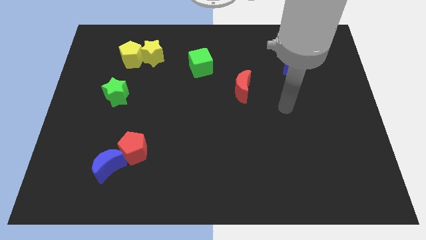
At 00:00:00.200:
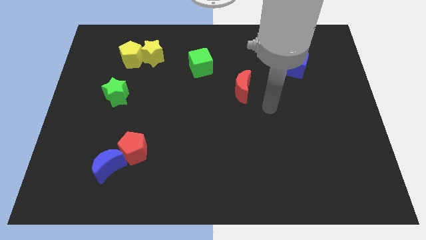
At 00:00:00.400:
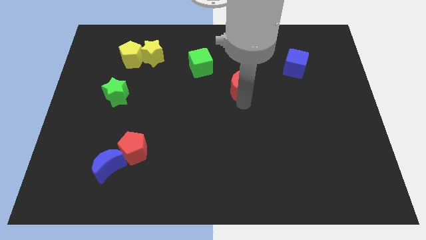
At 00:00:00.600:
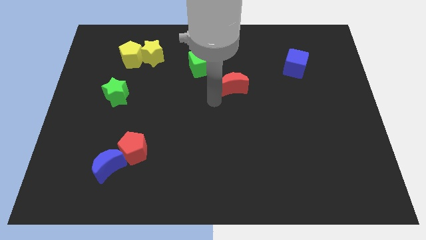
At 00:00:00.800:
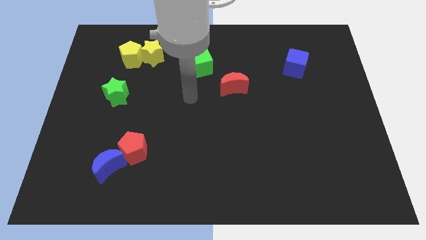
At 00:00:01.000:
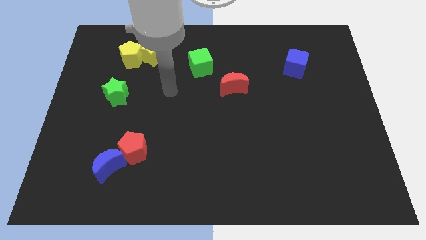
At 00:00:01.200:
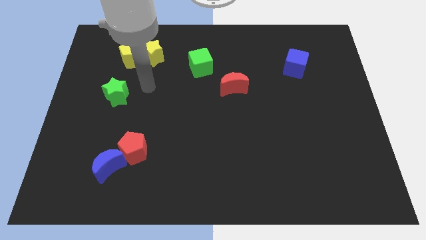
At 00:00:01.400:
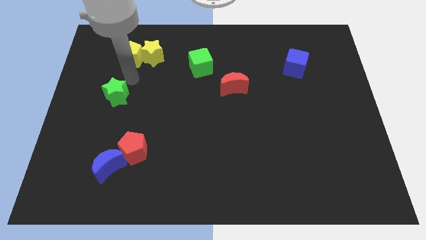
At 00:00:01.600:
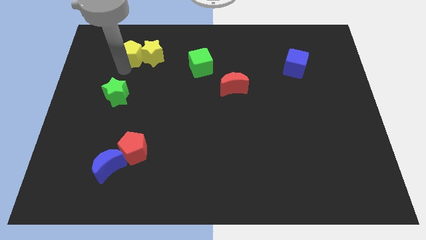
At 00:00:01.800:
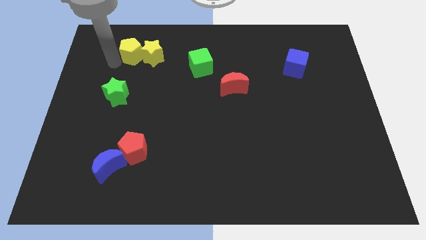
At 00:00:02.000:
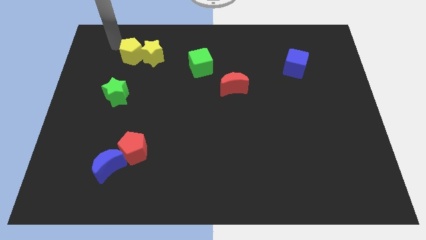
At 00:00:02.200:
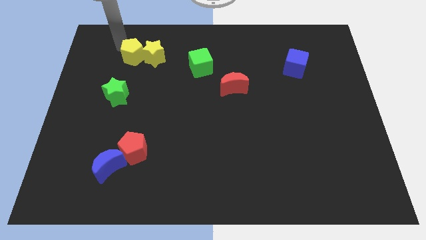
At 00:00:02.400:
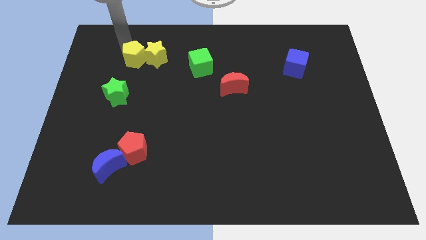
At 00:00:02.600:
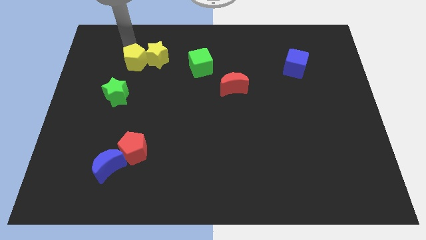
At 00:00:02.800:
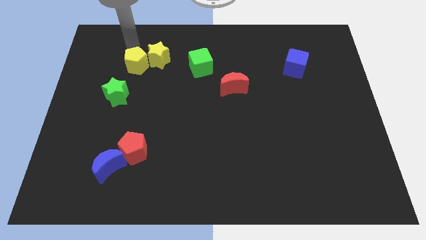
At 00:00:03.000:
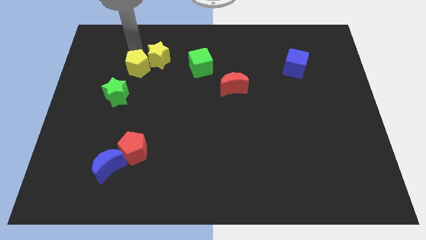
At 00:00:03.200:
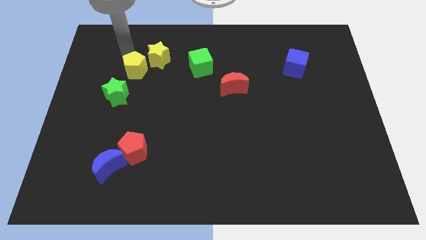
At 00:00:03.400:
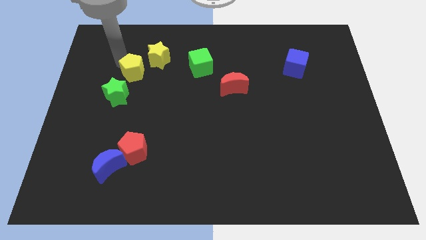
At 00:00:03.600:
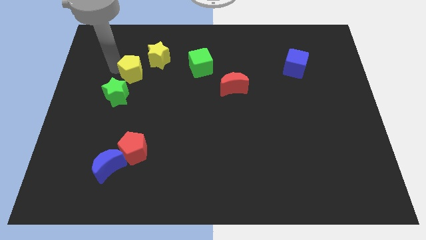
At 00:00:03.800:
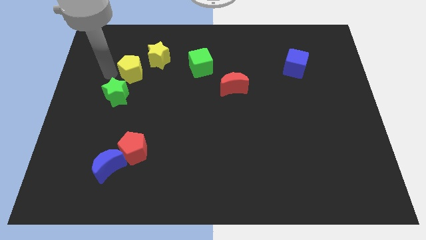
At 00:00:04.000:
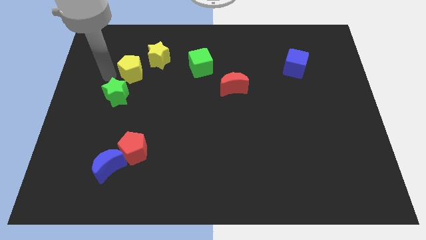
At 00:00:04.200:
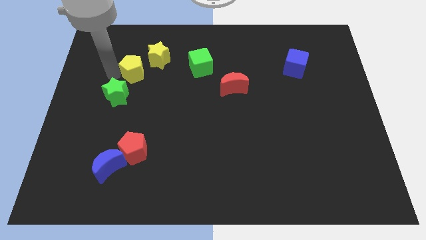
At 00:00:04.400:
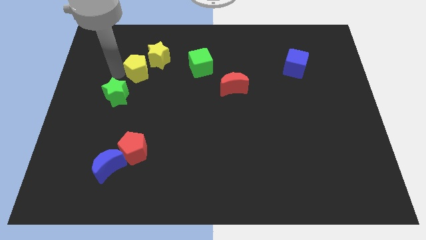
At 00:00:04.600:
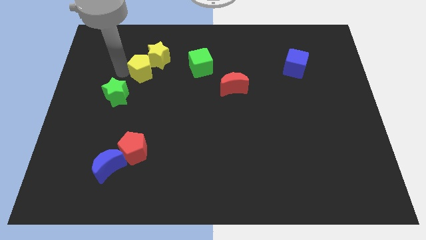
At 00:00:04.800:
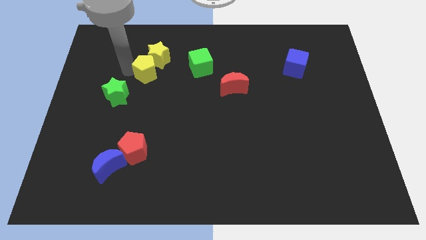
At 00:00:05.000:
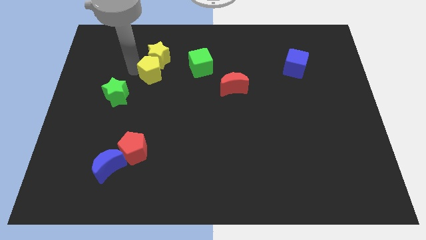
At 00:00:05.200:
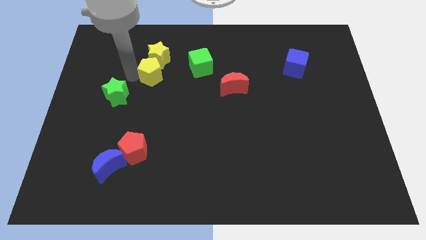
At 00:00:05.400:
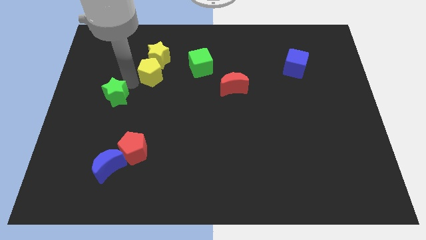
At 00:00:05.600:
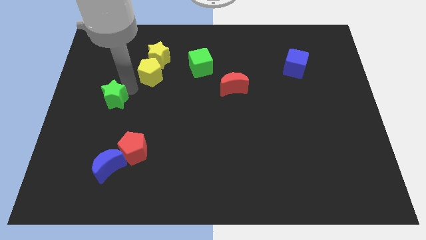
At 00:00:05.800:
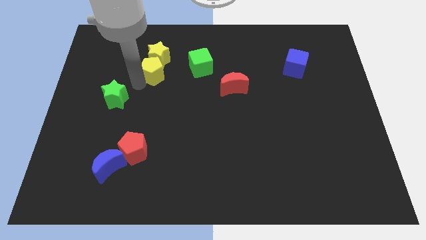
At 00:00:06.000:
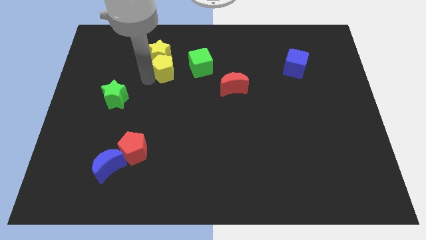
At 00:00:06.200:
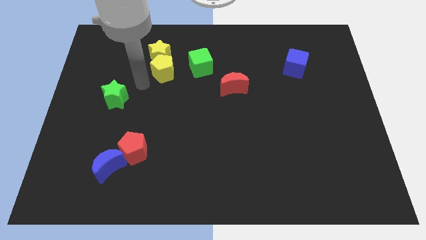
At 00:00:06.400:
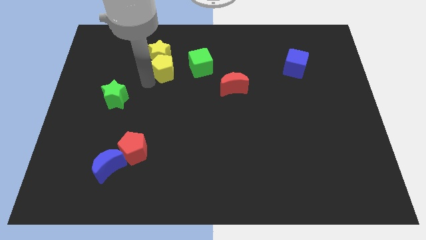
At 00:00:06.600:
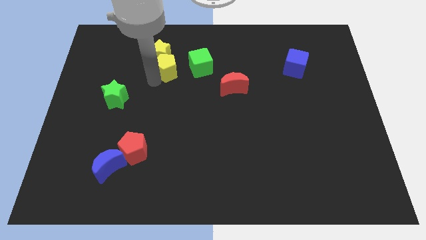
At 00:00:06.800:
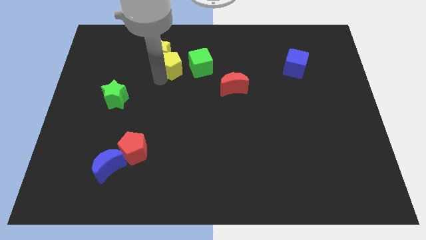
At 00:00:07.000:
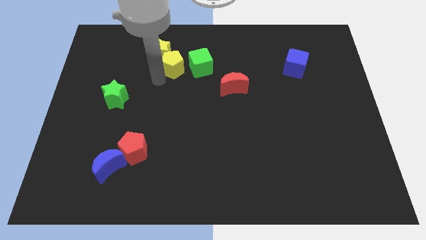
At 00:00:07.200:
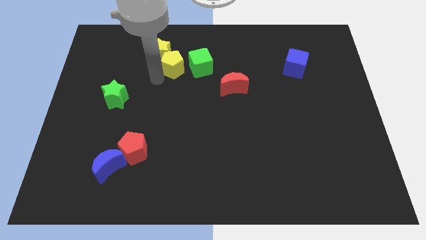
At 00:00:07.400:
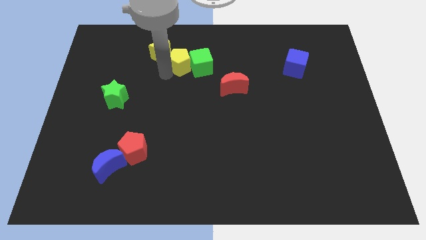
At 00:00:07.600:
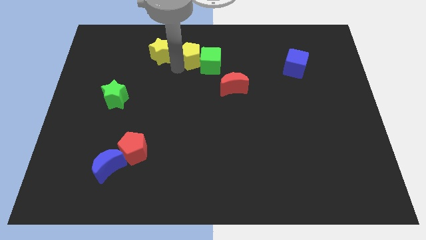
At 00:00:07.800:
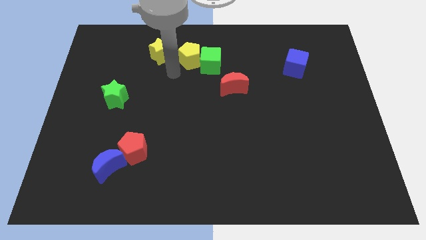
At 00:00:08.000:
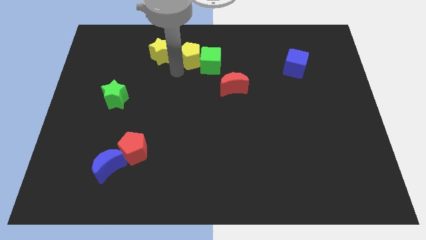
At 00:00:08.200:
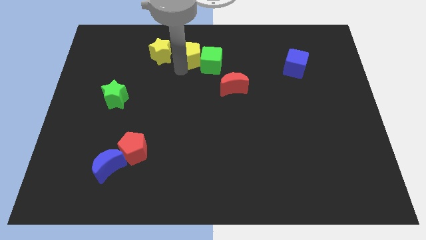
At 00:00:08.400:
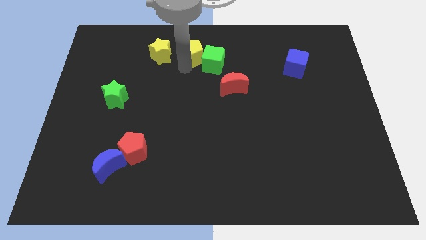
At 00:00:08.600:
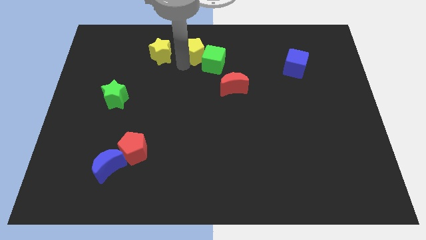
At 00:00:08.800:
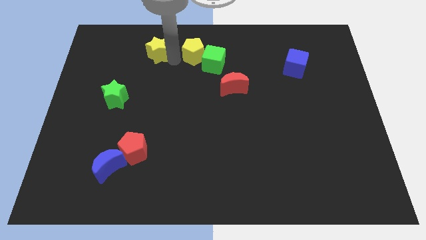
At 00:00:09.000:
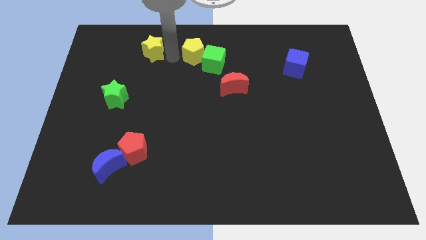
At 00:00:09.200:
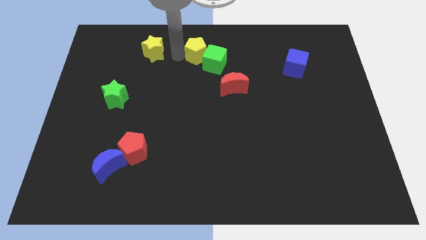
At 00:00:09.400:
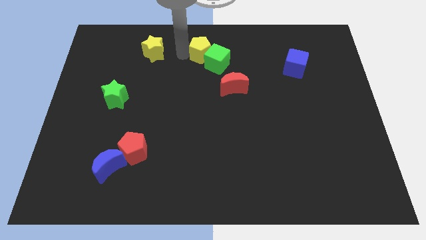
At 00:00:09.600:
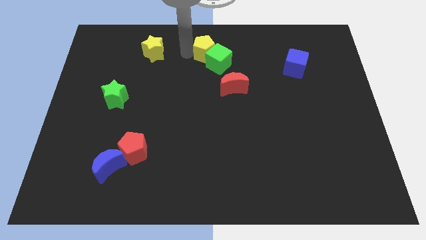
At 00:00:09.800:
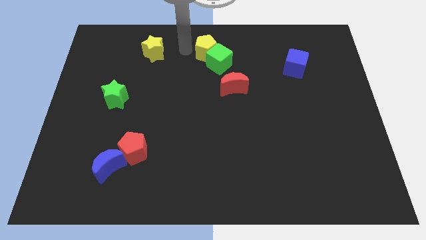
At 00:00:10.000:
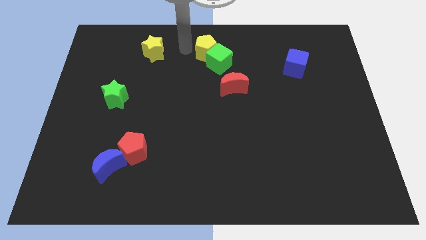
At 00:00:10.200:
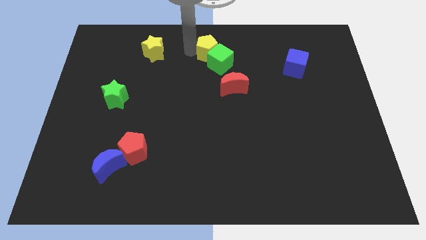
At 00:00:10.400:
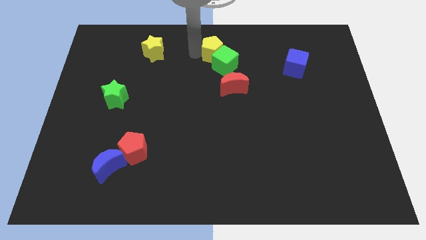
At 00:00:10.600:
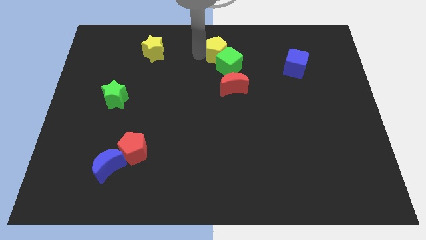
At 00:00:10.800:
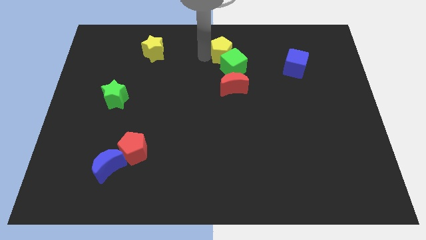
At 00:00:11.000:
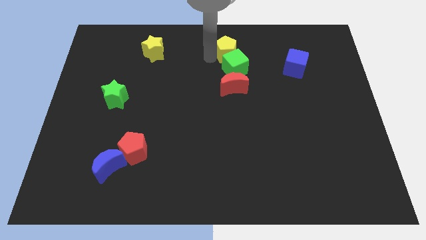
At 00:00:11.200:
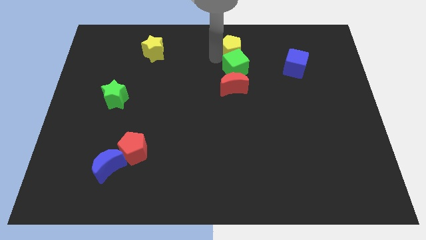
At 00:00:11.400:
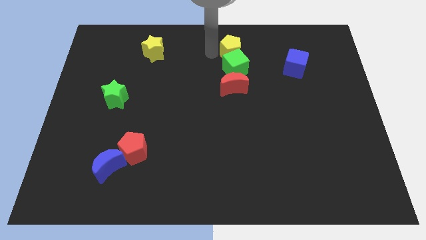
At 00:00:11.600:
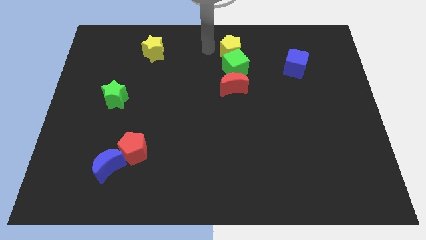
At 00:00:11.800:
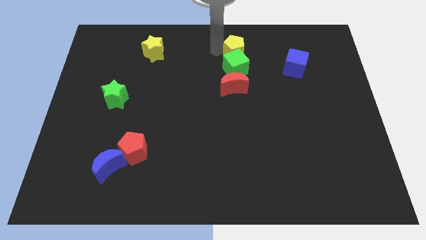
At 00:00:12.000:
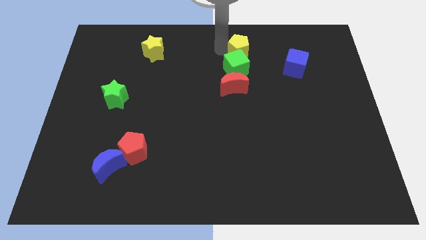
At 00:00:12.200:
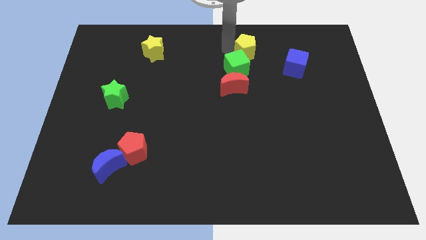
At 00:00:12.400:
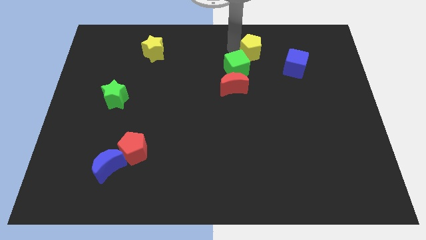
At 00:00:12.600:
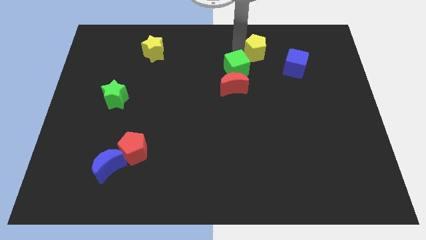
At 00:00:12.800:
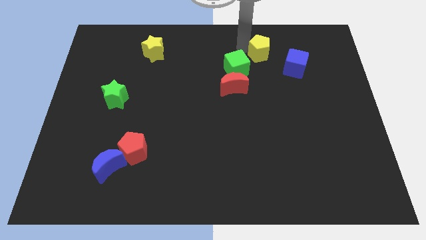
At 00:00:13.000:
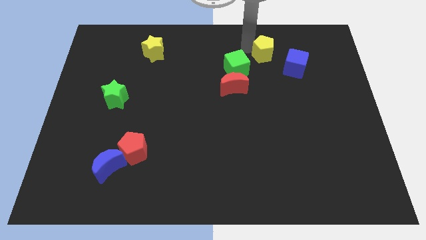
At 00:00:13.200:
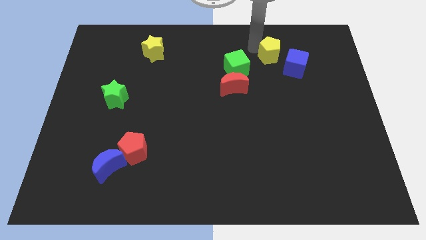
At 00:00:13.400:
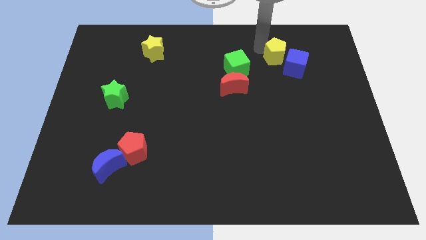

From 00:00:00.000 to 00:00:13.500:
push the yellow pentagon to the blue cube

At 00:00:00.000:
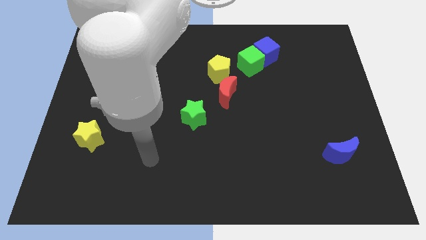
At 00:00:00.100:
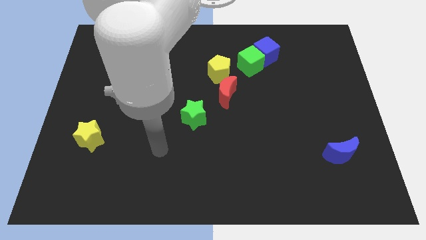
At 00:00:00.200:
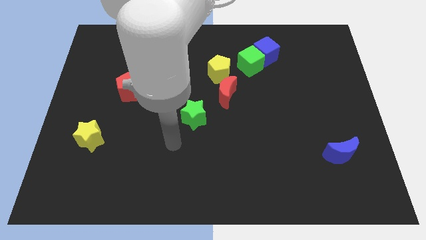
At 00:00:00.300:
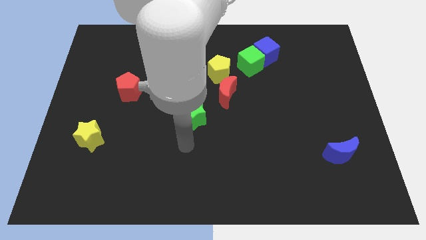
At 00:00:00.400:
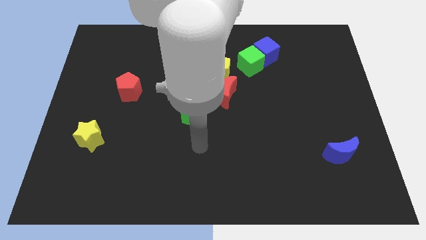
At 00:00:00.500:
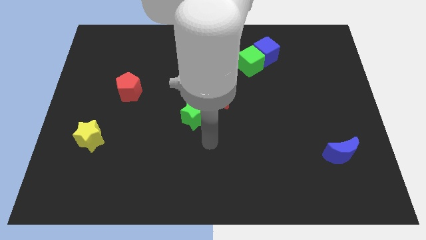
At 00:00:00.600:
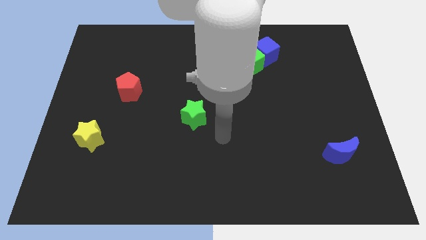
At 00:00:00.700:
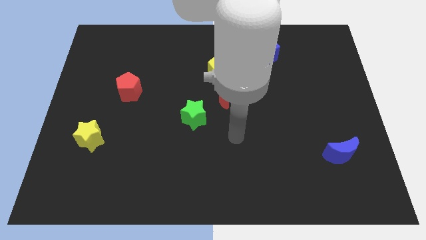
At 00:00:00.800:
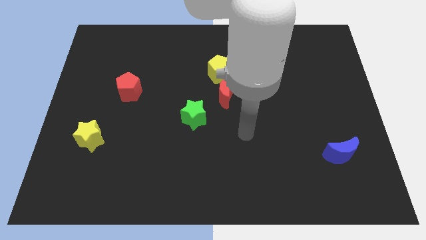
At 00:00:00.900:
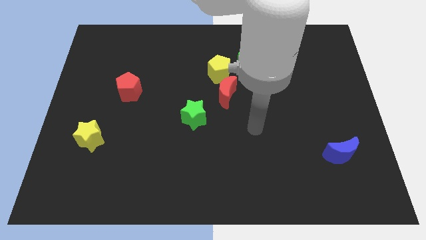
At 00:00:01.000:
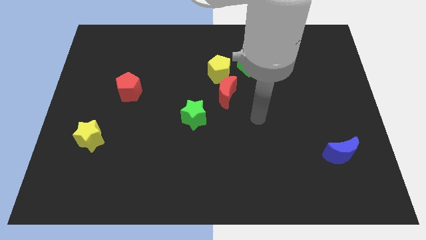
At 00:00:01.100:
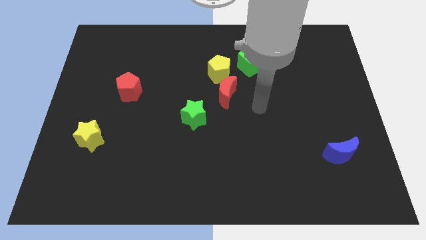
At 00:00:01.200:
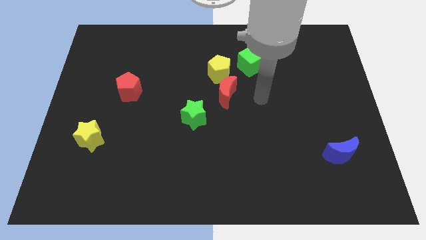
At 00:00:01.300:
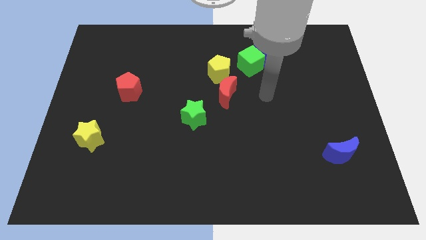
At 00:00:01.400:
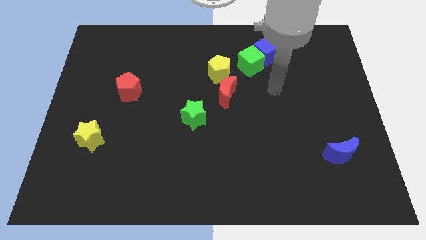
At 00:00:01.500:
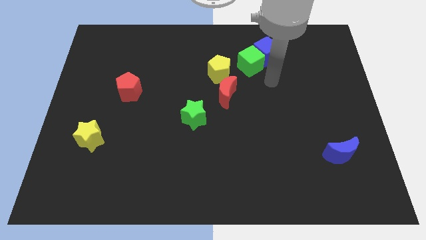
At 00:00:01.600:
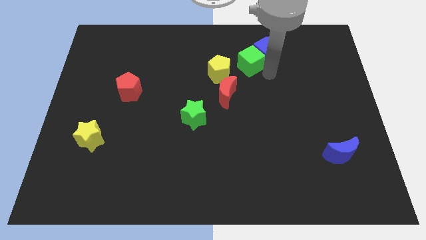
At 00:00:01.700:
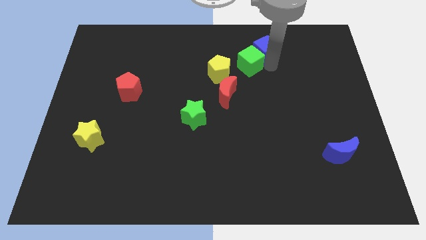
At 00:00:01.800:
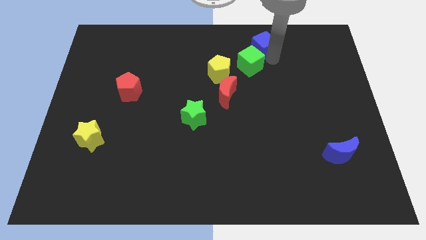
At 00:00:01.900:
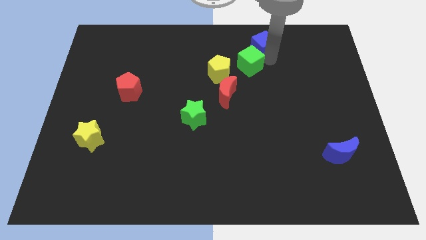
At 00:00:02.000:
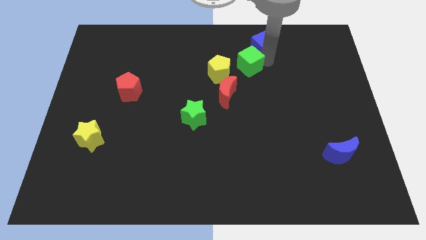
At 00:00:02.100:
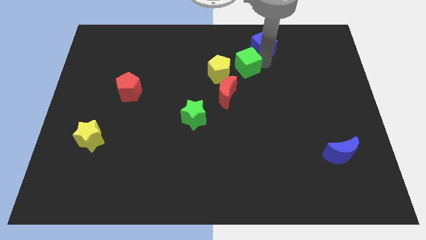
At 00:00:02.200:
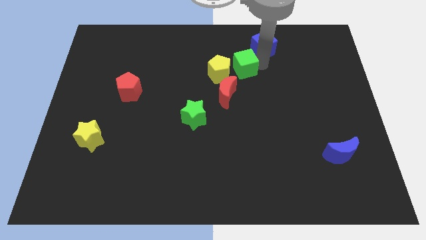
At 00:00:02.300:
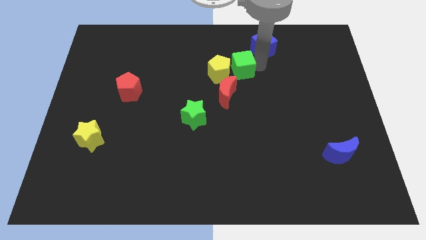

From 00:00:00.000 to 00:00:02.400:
put the green cube towards the yellow pentagon
